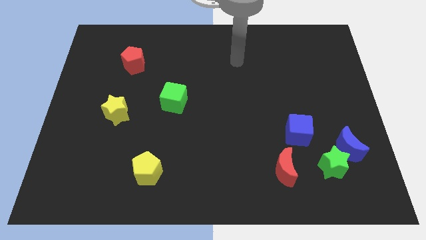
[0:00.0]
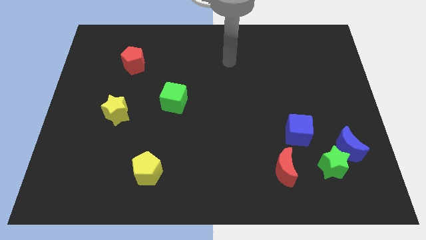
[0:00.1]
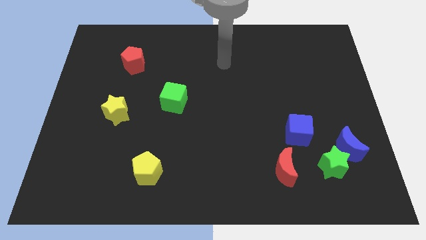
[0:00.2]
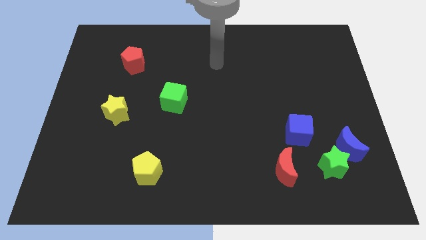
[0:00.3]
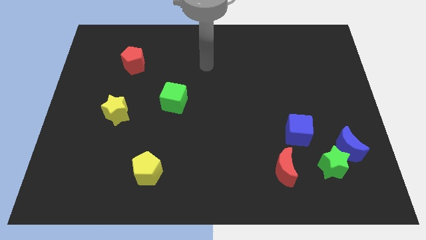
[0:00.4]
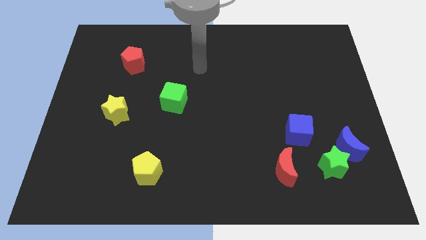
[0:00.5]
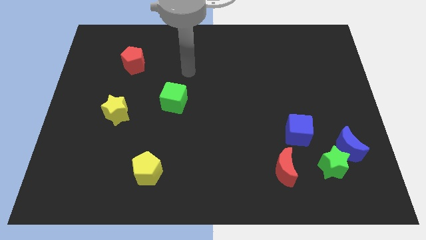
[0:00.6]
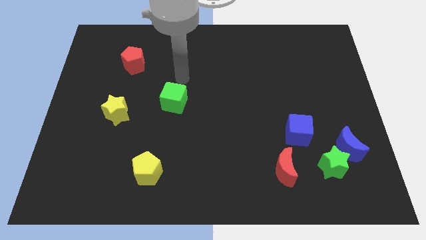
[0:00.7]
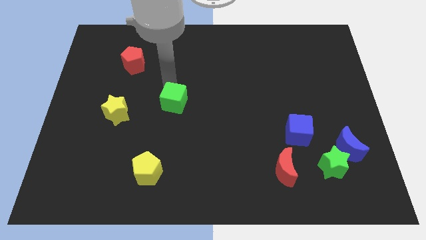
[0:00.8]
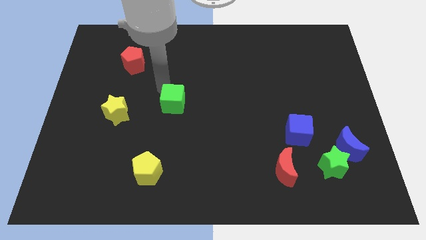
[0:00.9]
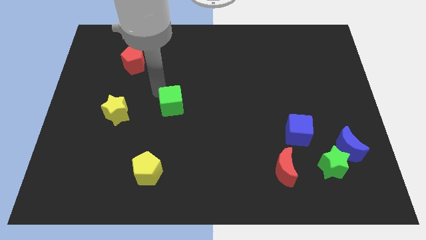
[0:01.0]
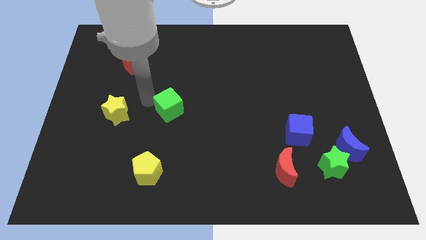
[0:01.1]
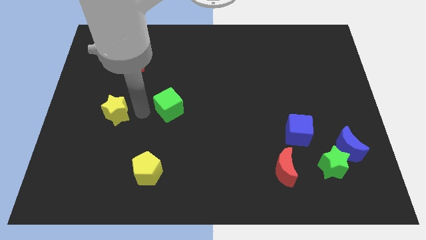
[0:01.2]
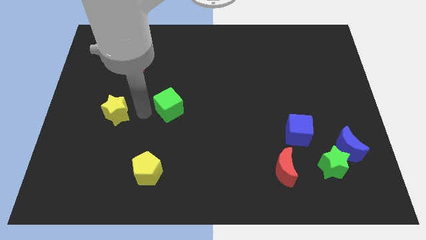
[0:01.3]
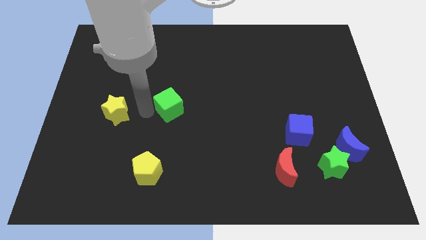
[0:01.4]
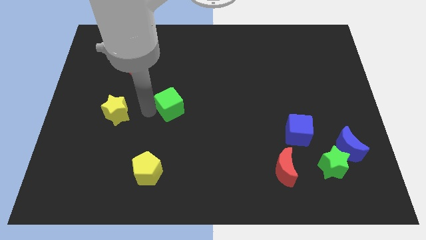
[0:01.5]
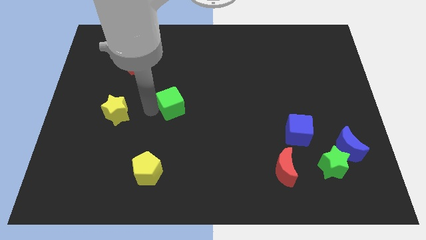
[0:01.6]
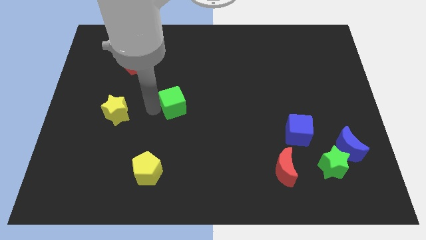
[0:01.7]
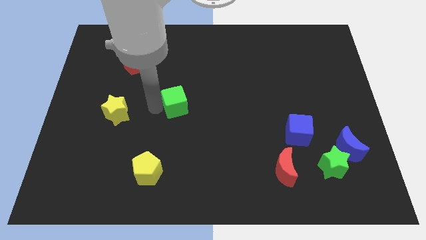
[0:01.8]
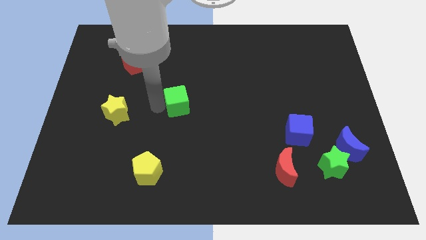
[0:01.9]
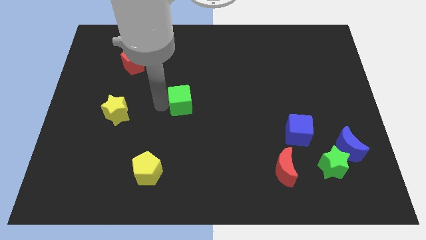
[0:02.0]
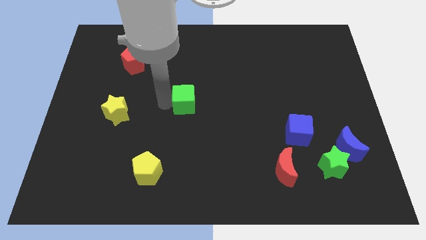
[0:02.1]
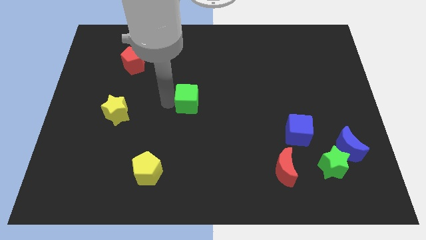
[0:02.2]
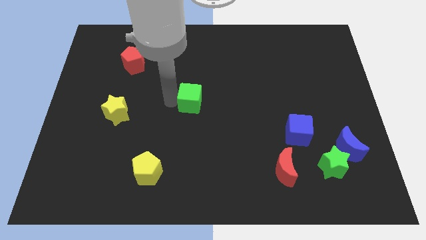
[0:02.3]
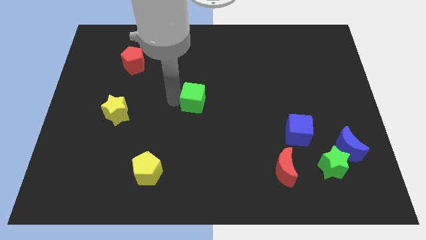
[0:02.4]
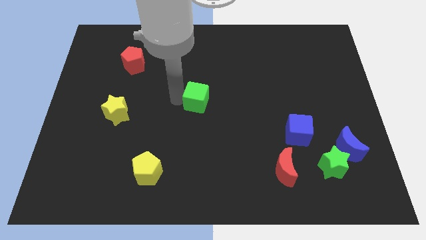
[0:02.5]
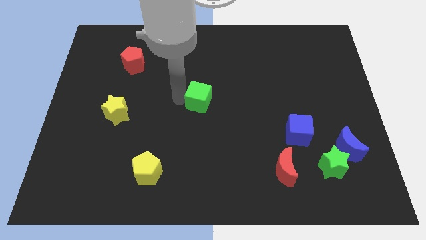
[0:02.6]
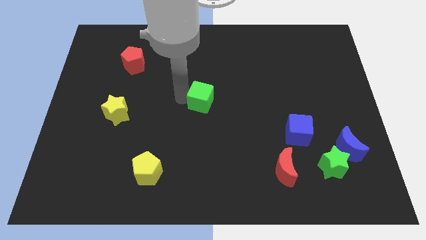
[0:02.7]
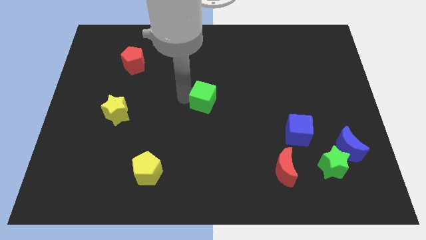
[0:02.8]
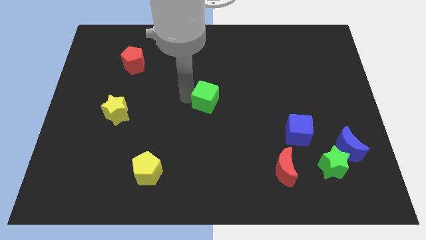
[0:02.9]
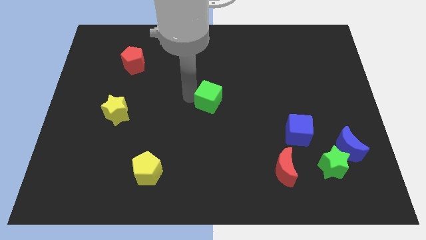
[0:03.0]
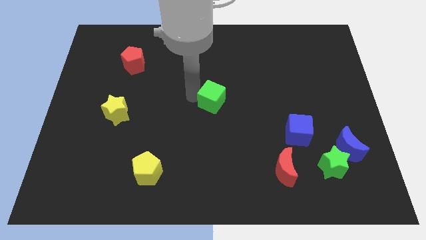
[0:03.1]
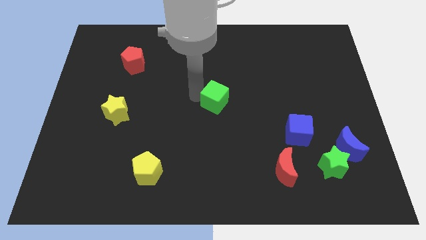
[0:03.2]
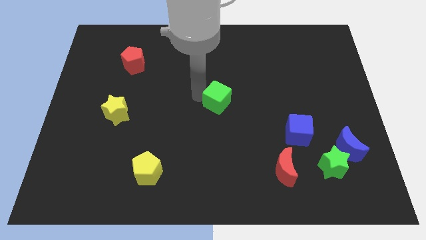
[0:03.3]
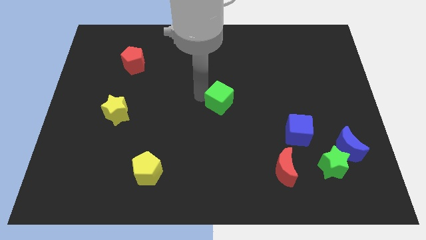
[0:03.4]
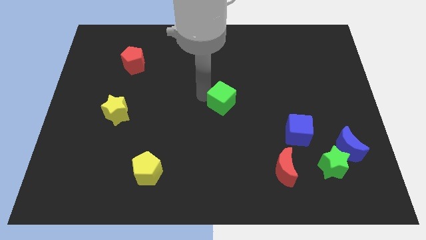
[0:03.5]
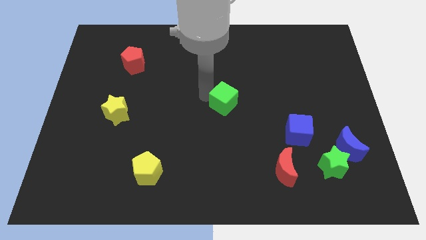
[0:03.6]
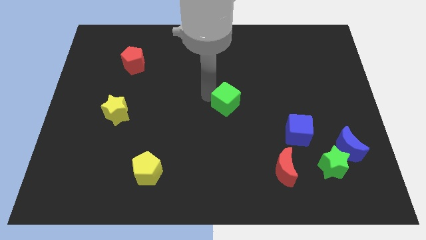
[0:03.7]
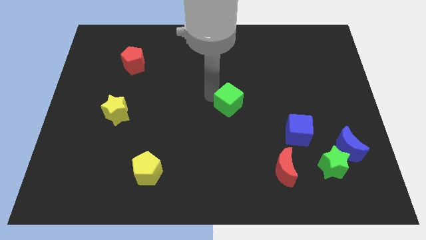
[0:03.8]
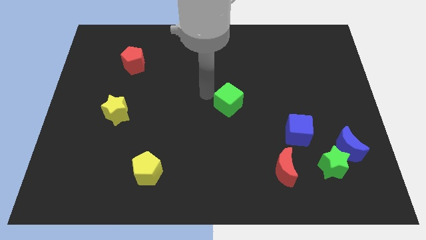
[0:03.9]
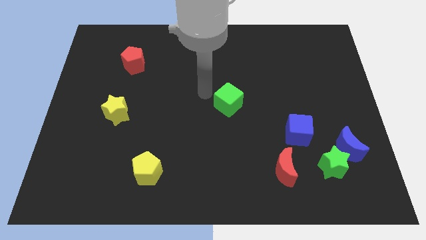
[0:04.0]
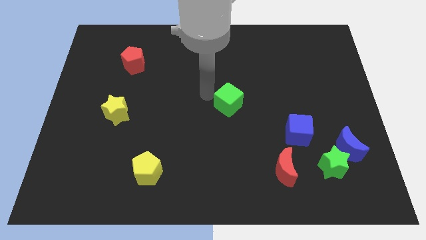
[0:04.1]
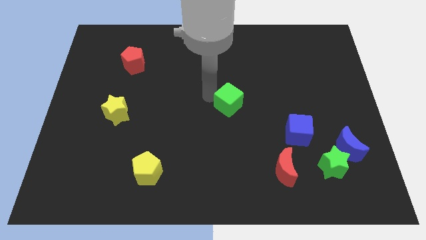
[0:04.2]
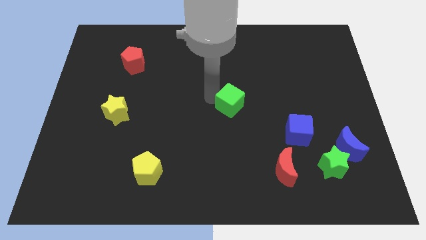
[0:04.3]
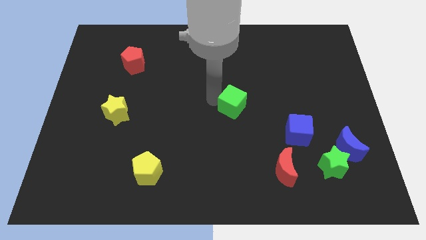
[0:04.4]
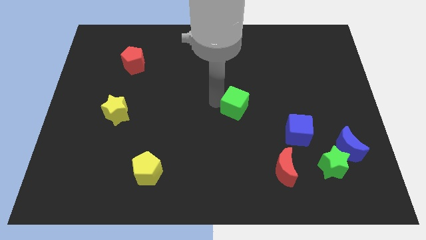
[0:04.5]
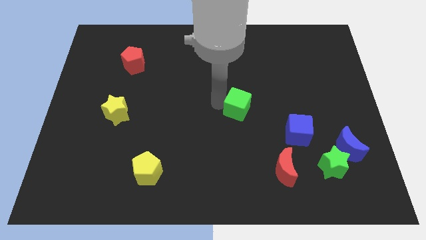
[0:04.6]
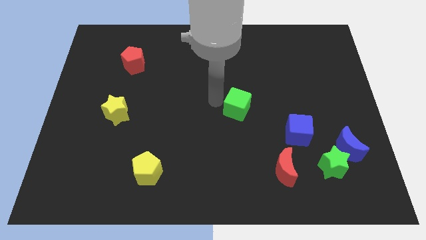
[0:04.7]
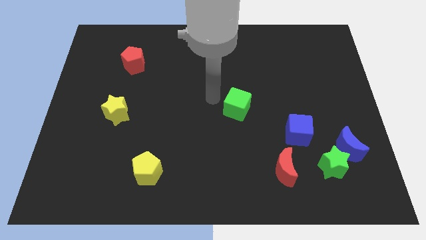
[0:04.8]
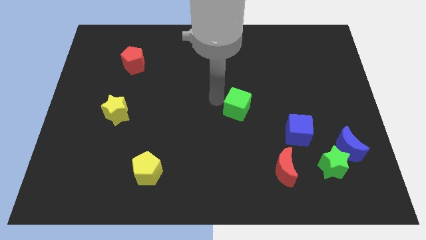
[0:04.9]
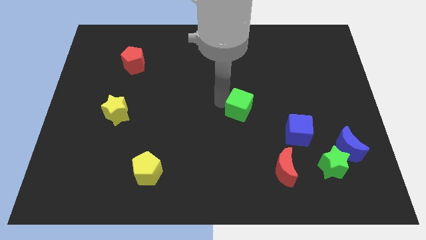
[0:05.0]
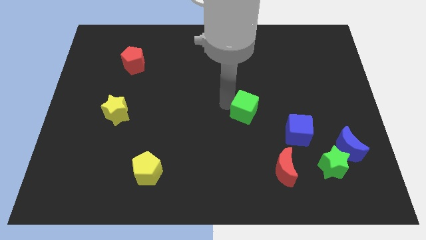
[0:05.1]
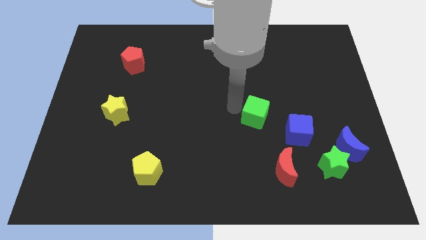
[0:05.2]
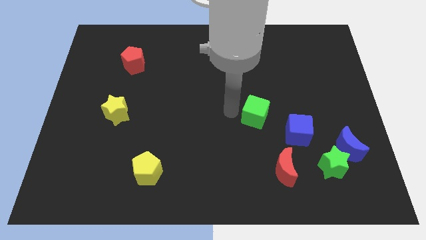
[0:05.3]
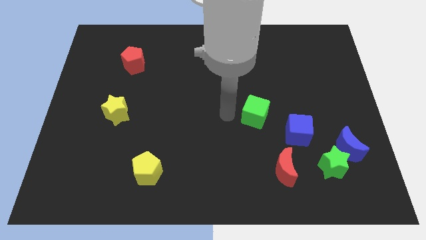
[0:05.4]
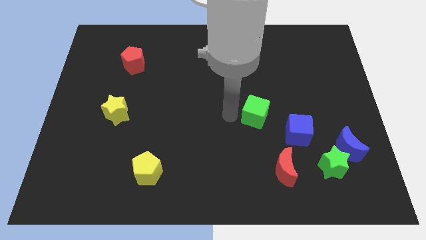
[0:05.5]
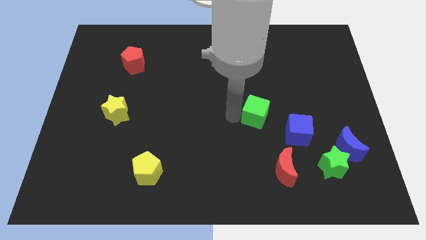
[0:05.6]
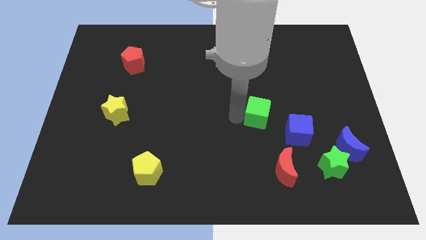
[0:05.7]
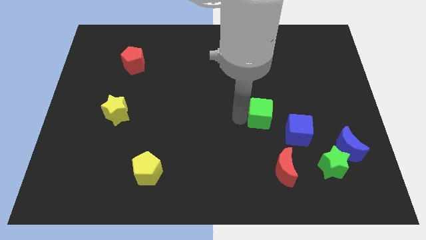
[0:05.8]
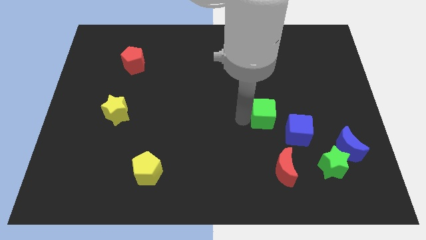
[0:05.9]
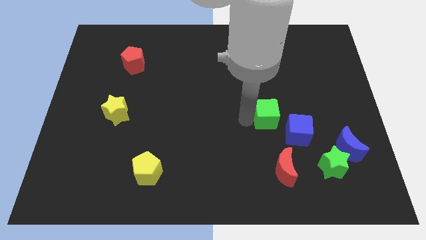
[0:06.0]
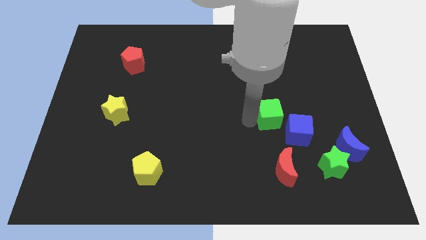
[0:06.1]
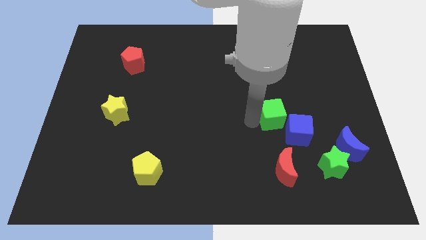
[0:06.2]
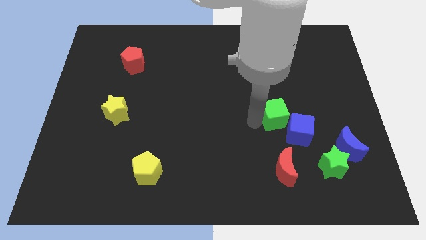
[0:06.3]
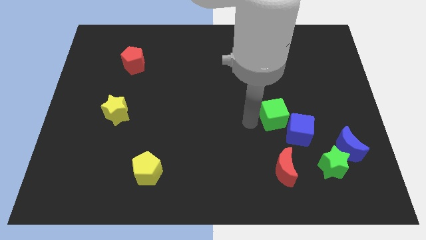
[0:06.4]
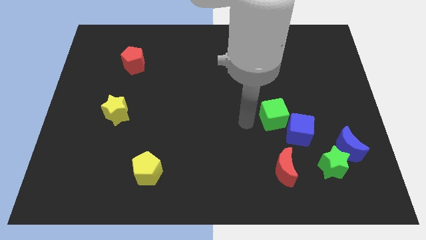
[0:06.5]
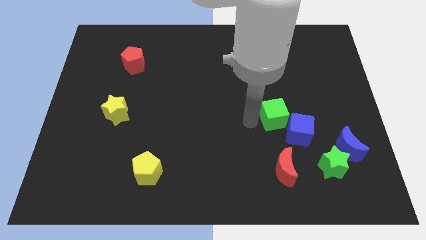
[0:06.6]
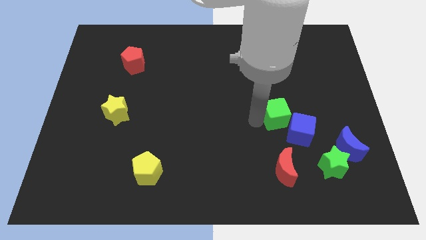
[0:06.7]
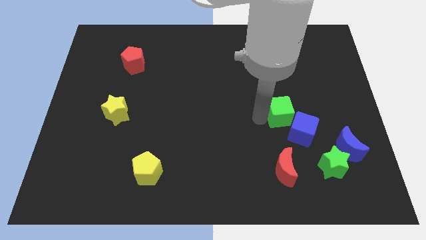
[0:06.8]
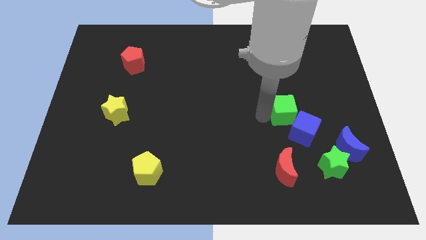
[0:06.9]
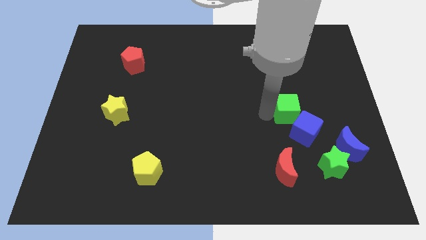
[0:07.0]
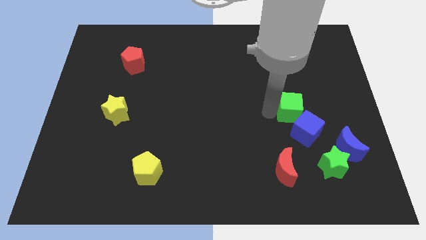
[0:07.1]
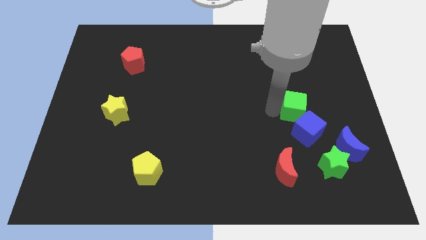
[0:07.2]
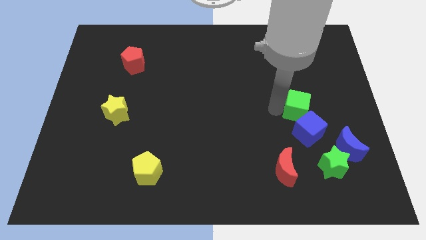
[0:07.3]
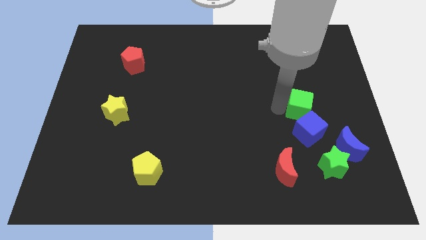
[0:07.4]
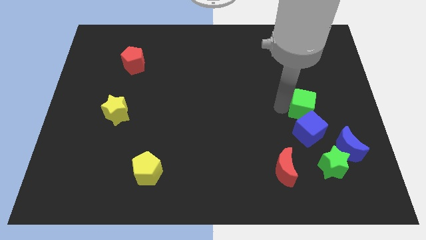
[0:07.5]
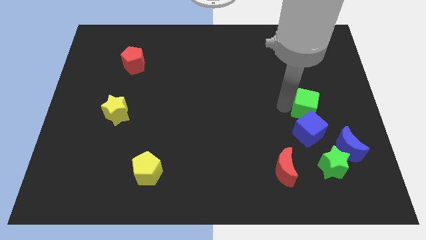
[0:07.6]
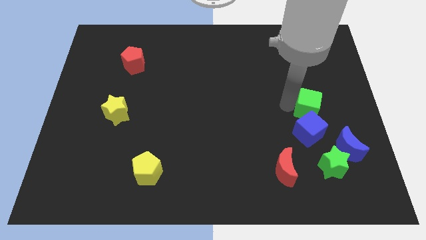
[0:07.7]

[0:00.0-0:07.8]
slide the green cube to the top of the green star
